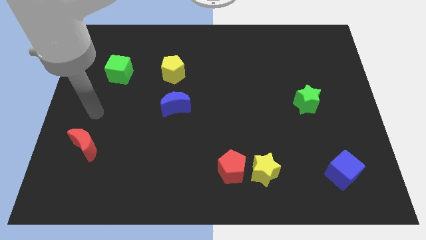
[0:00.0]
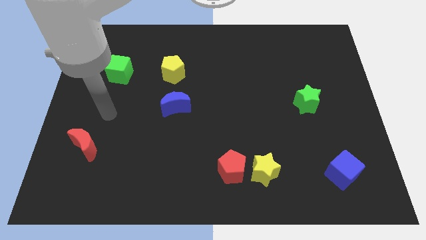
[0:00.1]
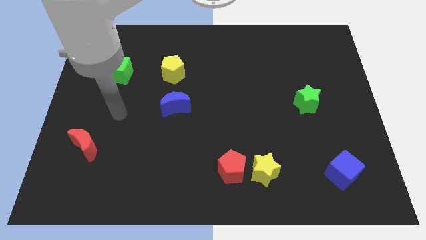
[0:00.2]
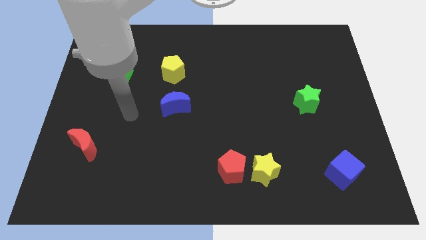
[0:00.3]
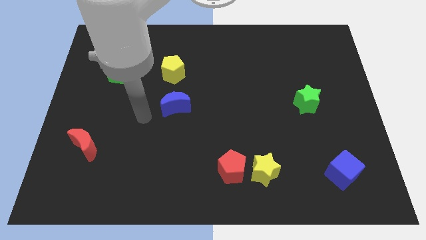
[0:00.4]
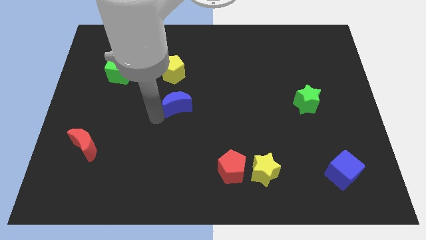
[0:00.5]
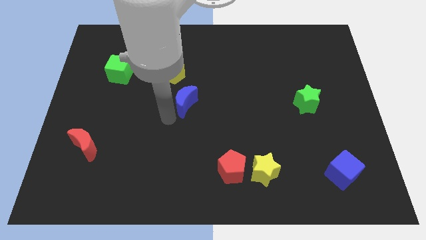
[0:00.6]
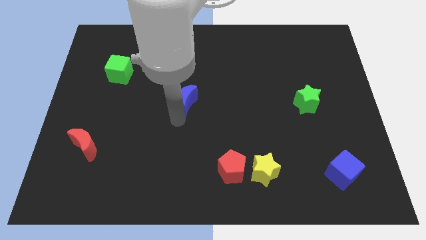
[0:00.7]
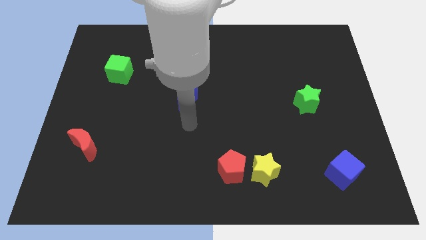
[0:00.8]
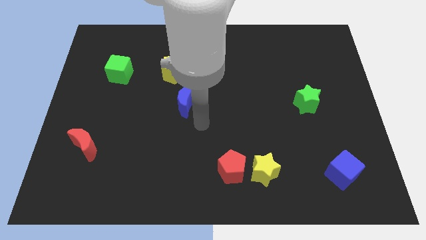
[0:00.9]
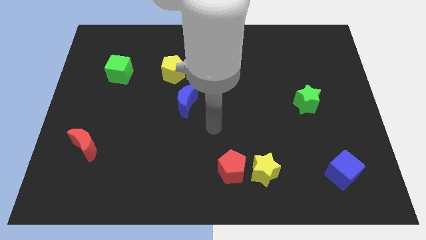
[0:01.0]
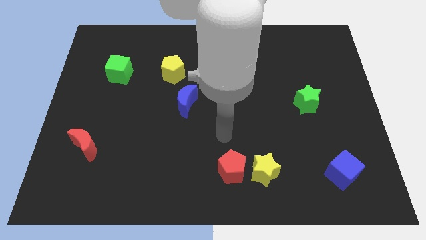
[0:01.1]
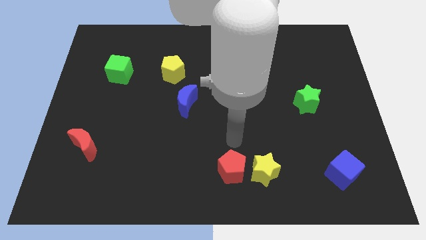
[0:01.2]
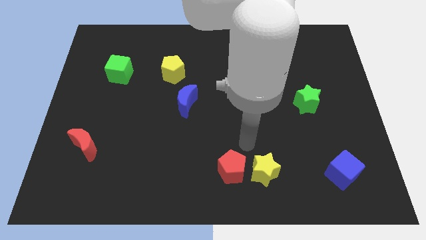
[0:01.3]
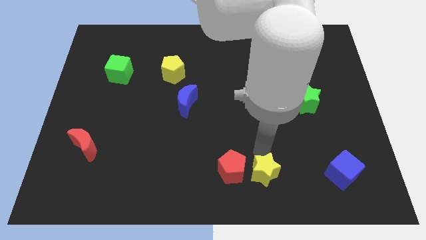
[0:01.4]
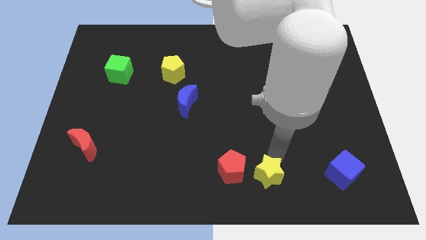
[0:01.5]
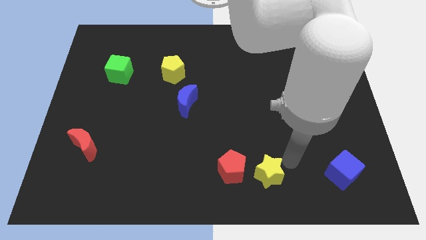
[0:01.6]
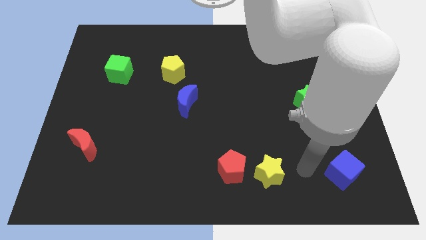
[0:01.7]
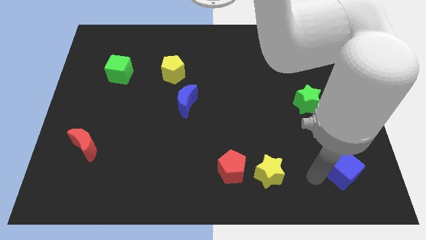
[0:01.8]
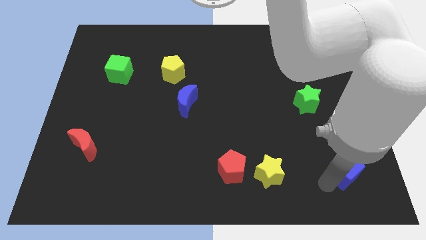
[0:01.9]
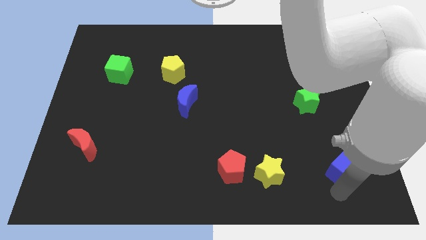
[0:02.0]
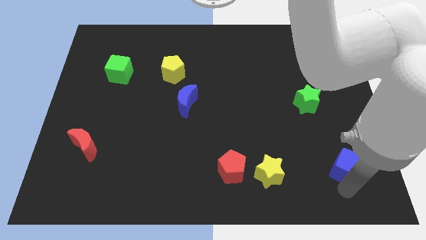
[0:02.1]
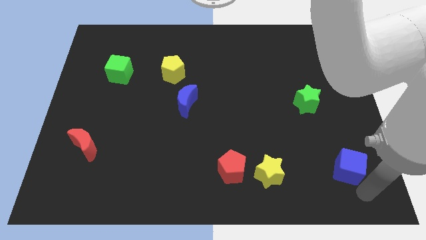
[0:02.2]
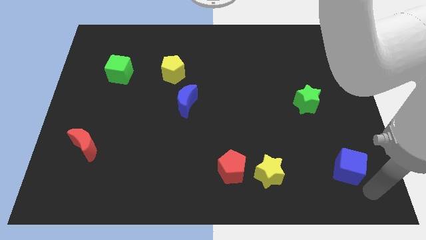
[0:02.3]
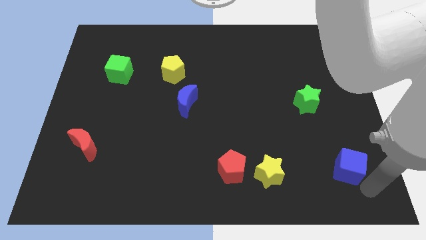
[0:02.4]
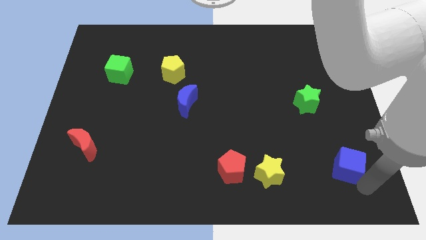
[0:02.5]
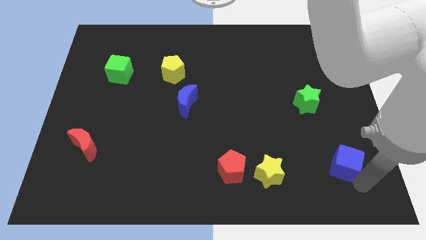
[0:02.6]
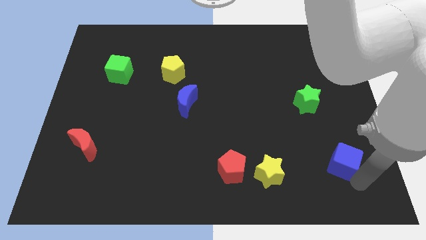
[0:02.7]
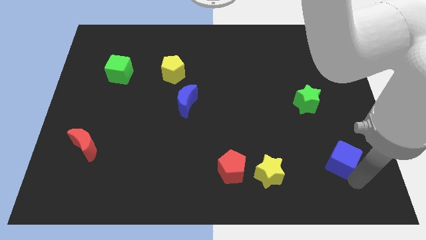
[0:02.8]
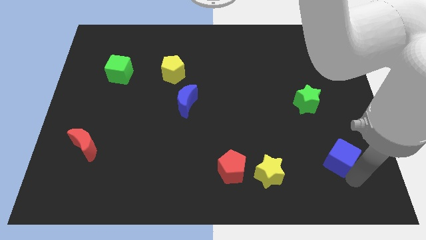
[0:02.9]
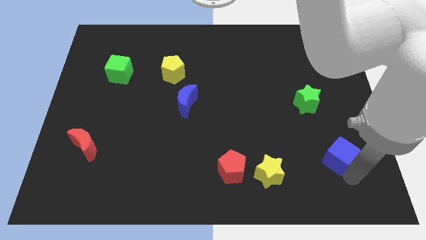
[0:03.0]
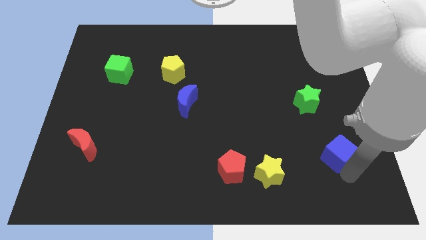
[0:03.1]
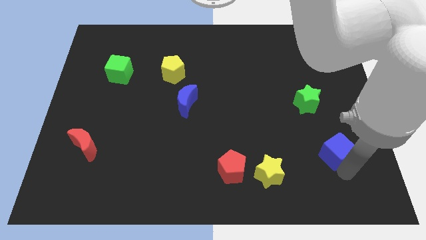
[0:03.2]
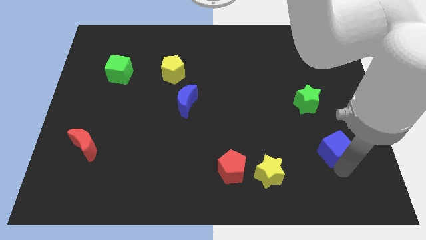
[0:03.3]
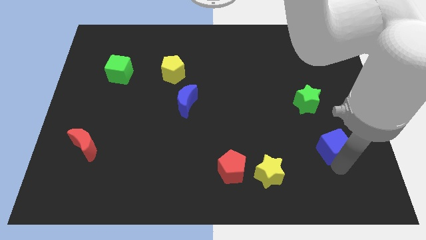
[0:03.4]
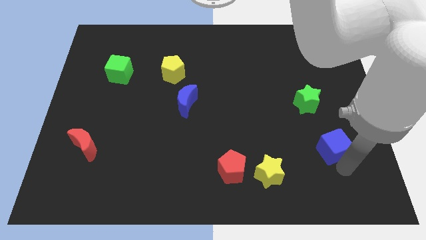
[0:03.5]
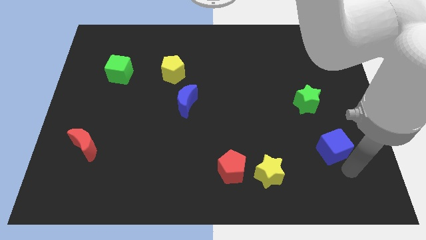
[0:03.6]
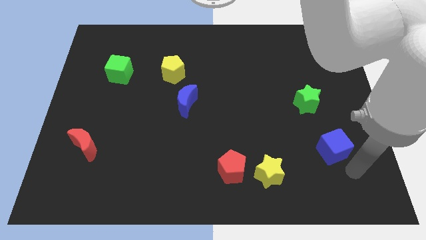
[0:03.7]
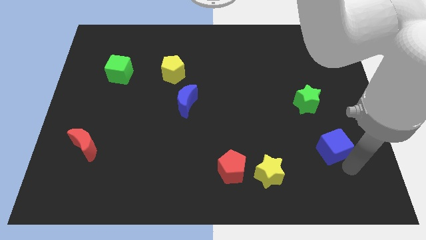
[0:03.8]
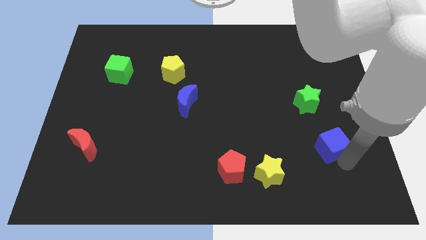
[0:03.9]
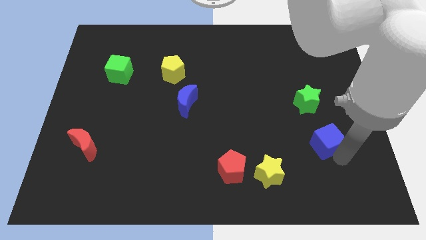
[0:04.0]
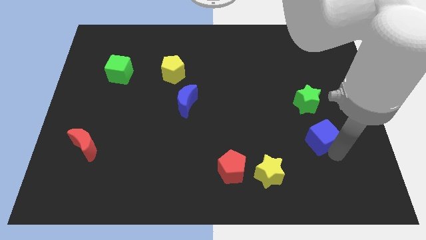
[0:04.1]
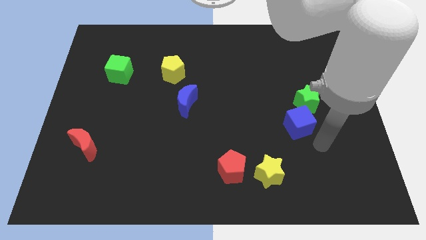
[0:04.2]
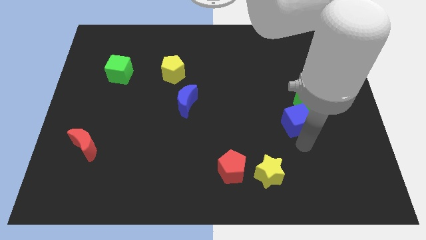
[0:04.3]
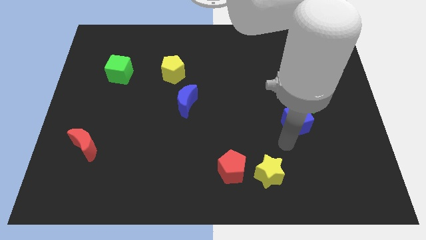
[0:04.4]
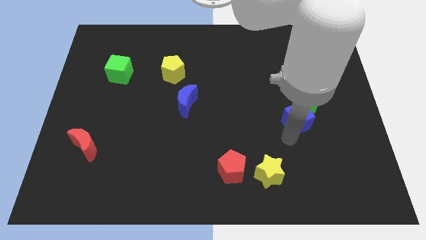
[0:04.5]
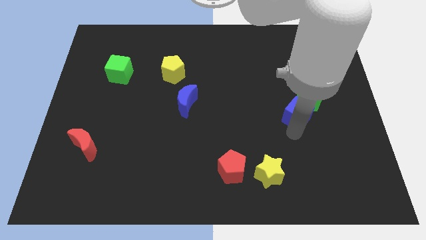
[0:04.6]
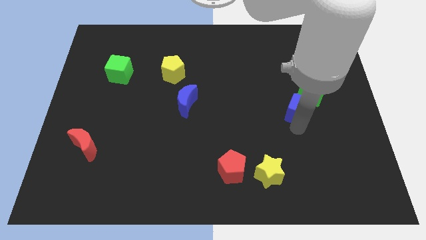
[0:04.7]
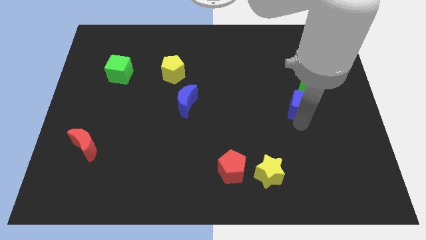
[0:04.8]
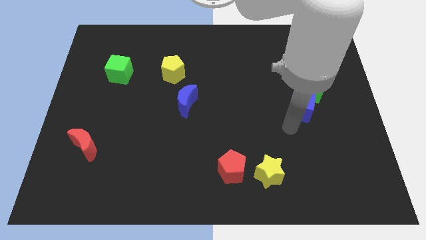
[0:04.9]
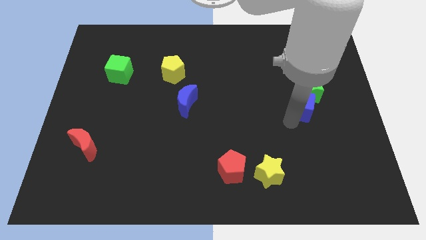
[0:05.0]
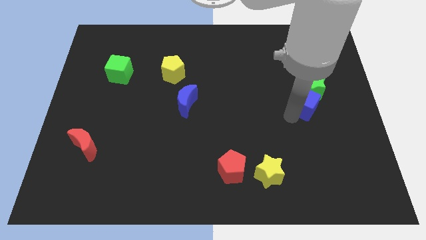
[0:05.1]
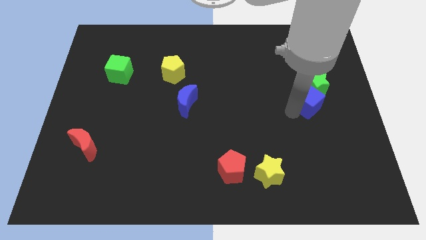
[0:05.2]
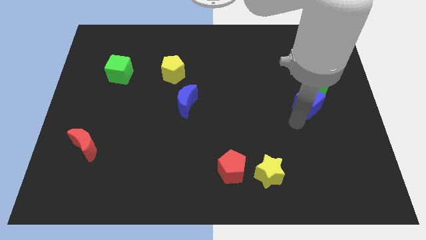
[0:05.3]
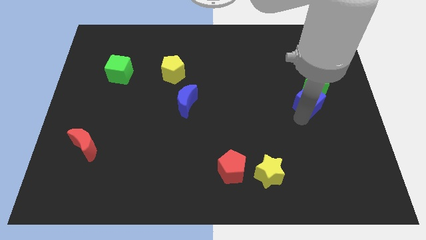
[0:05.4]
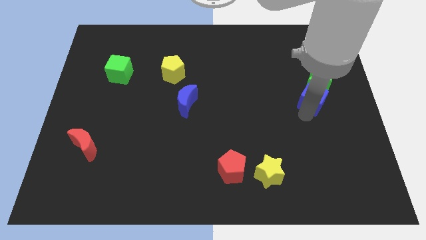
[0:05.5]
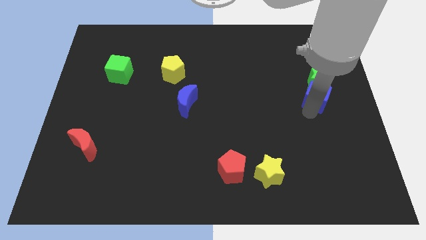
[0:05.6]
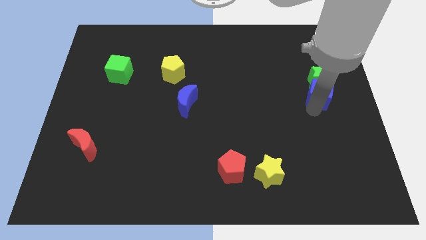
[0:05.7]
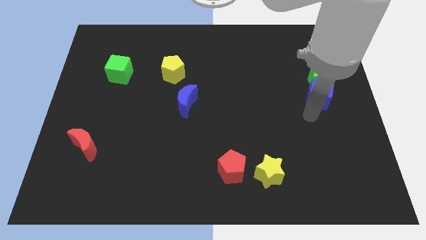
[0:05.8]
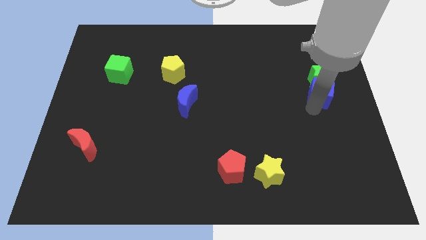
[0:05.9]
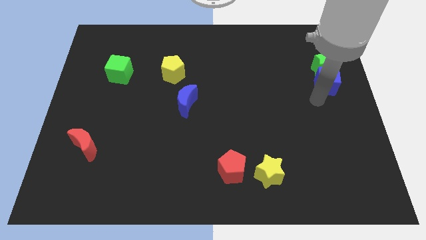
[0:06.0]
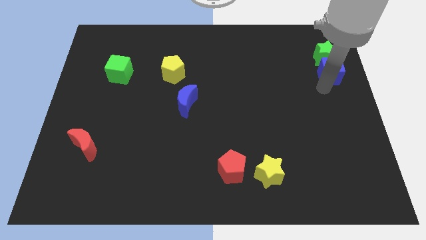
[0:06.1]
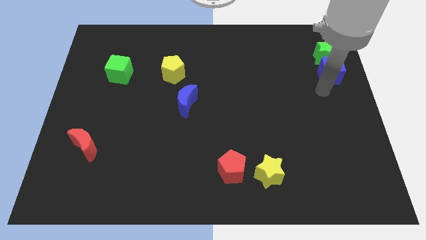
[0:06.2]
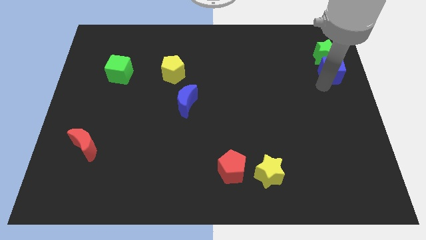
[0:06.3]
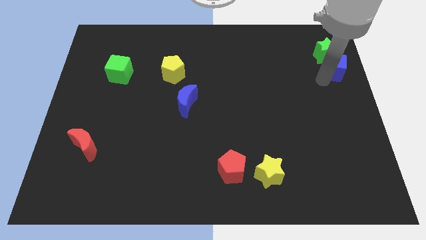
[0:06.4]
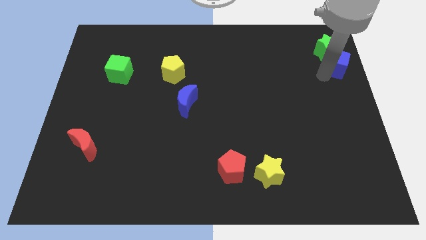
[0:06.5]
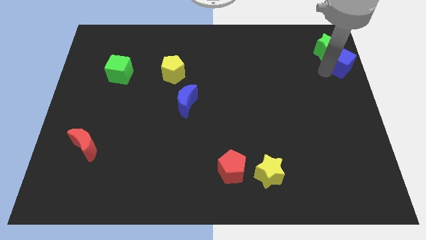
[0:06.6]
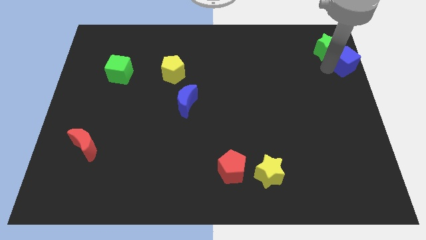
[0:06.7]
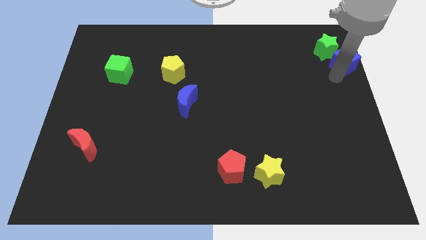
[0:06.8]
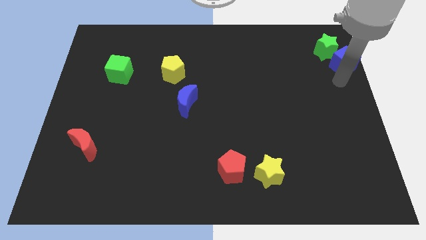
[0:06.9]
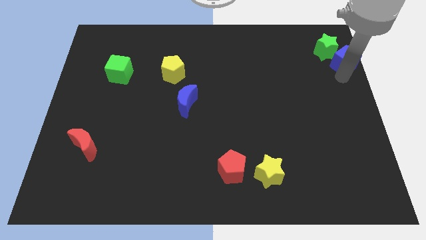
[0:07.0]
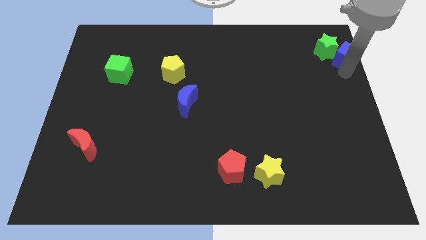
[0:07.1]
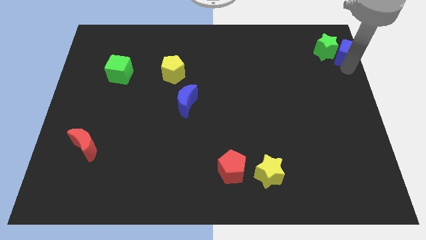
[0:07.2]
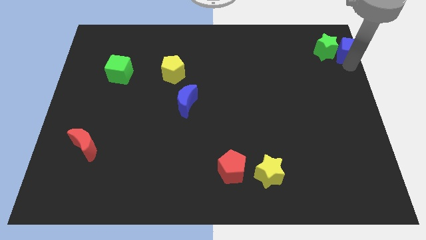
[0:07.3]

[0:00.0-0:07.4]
push the blue cube to the upper right corner
